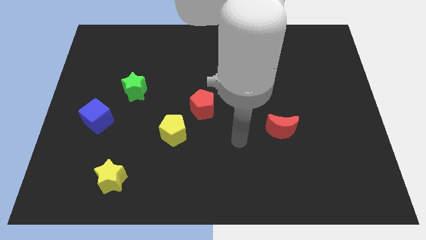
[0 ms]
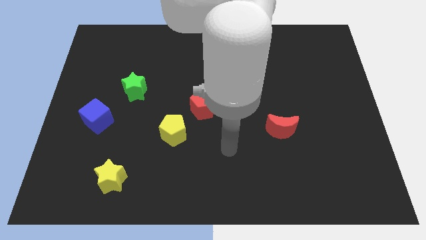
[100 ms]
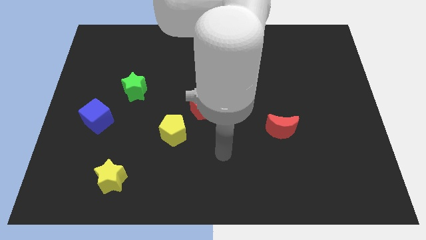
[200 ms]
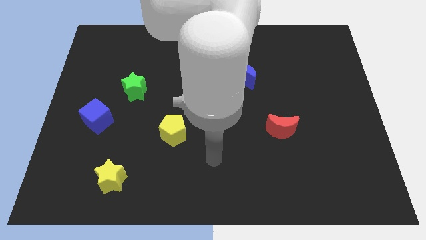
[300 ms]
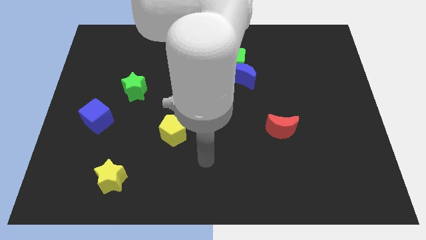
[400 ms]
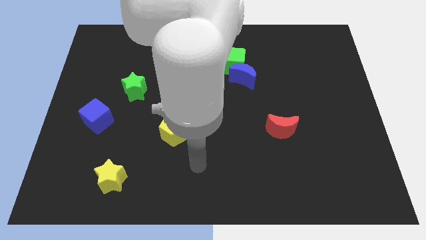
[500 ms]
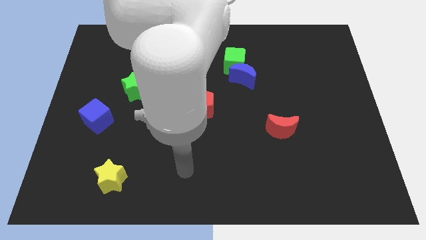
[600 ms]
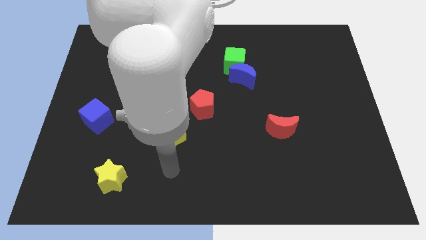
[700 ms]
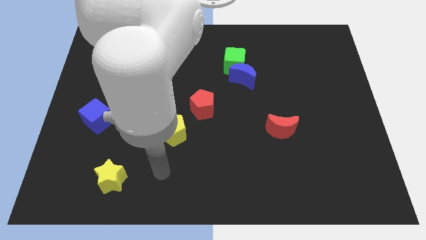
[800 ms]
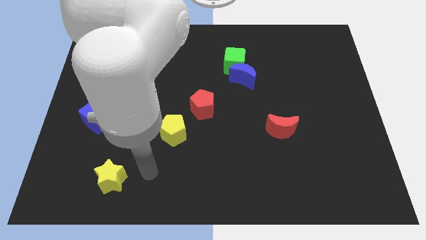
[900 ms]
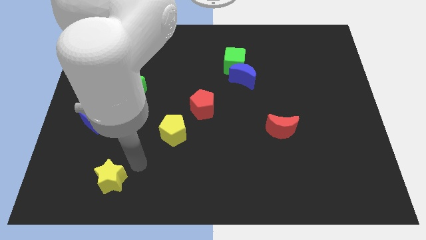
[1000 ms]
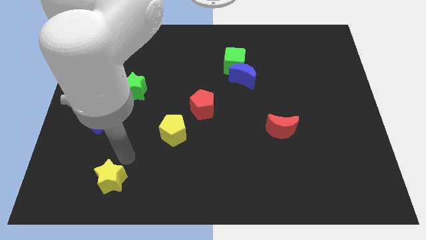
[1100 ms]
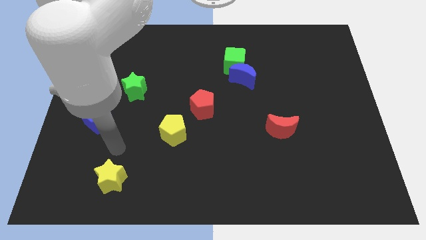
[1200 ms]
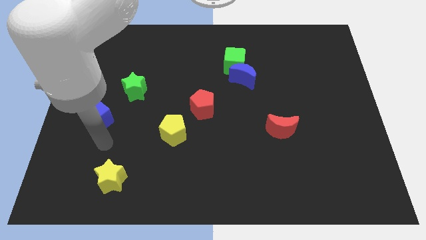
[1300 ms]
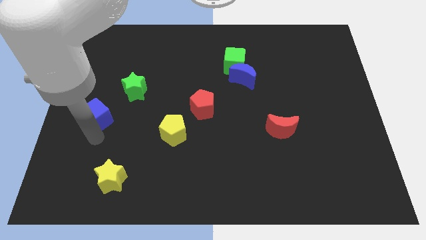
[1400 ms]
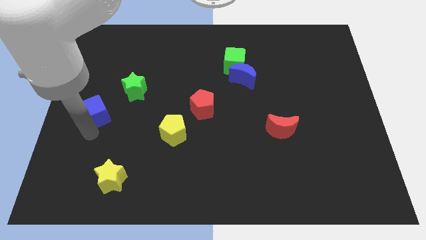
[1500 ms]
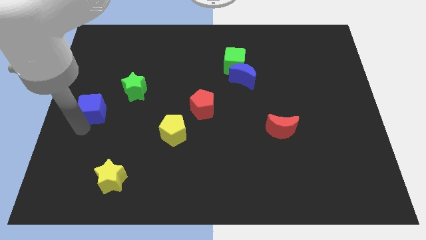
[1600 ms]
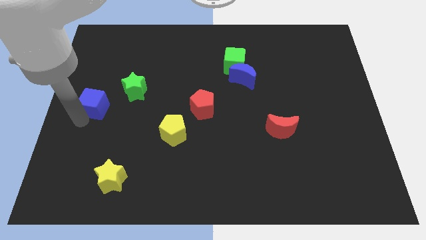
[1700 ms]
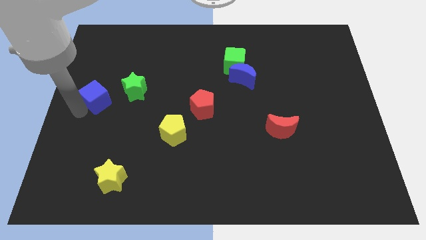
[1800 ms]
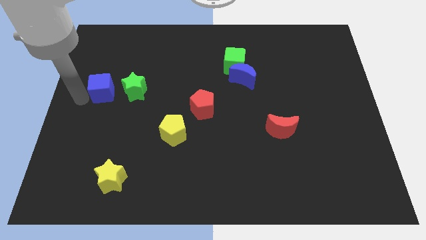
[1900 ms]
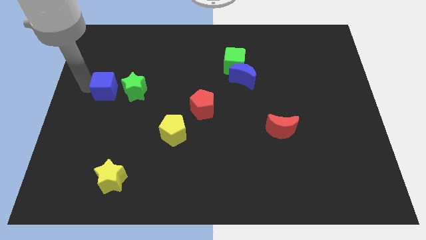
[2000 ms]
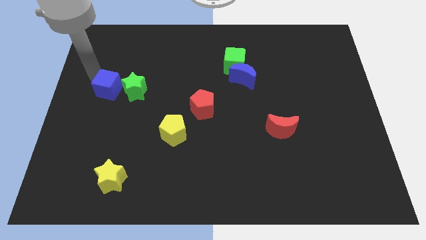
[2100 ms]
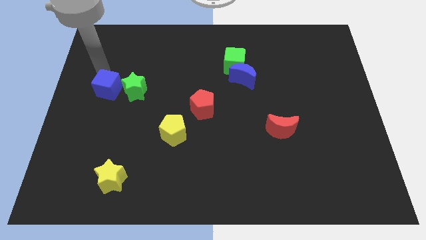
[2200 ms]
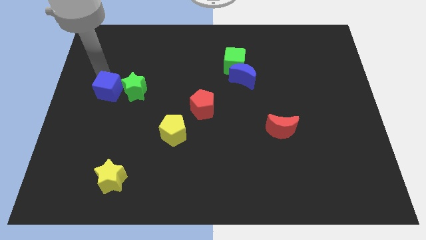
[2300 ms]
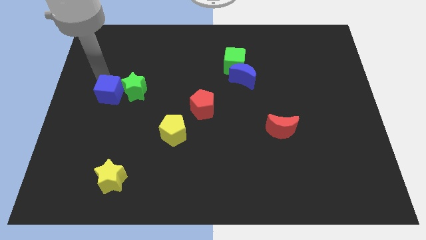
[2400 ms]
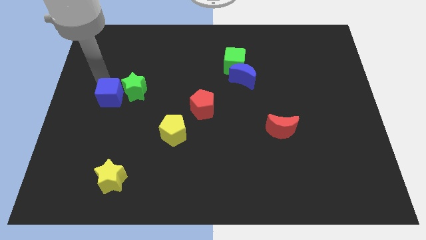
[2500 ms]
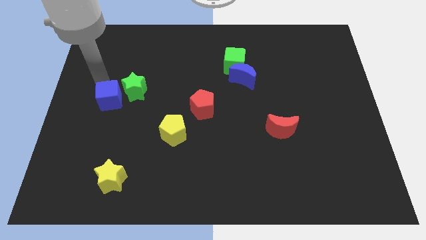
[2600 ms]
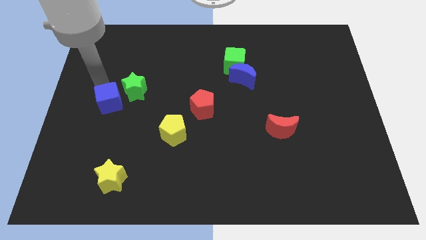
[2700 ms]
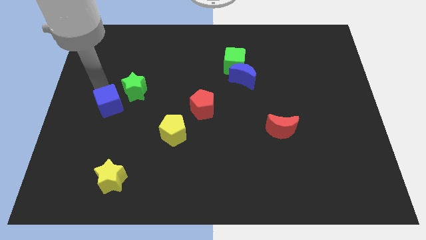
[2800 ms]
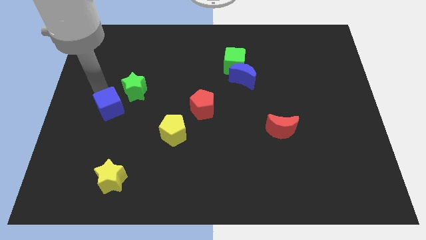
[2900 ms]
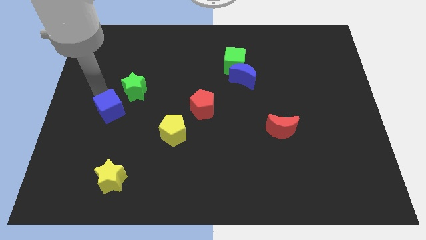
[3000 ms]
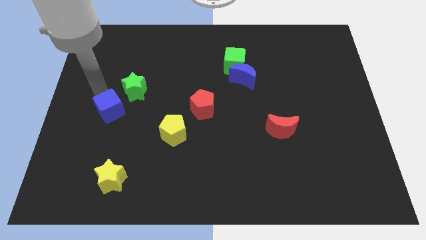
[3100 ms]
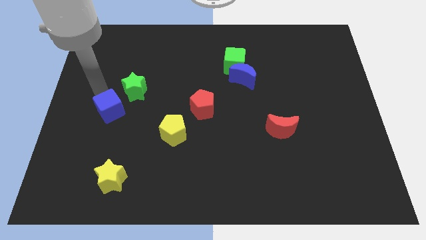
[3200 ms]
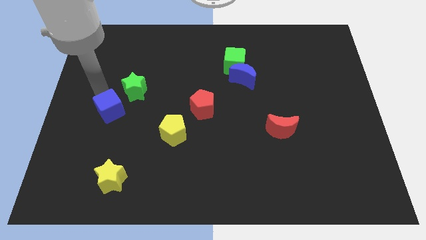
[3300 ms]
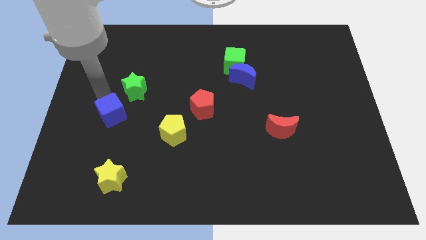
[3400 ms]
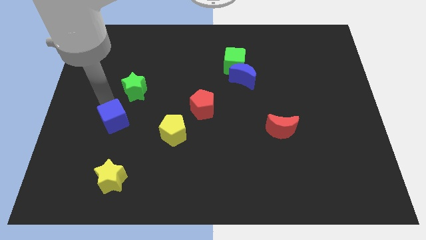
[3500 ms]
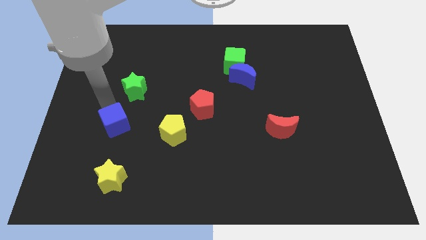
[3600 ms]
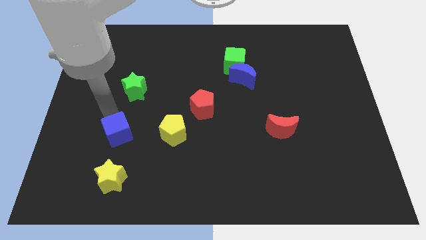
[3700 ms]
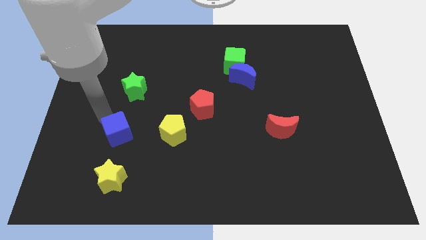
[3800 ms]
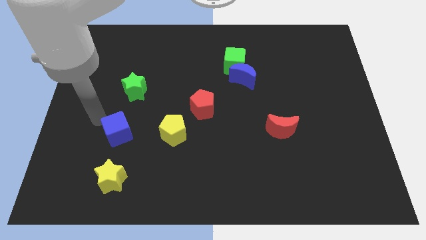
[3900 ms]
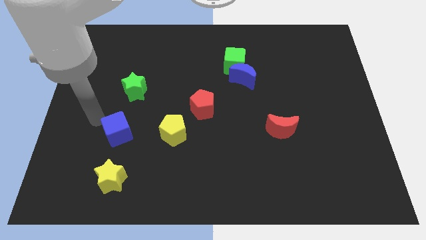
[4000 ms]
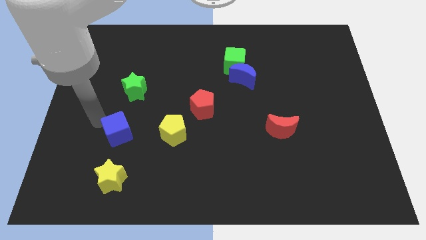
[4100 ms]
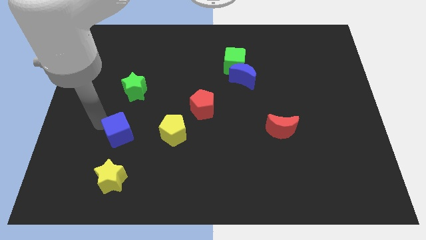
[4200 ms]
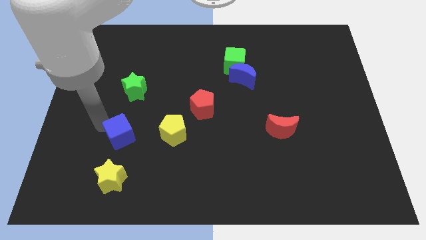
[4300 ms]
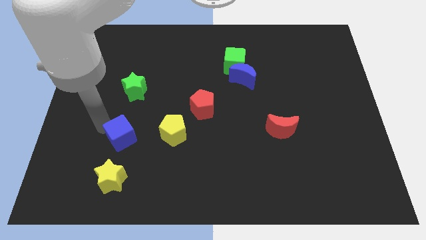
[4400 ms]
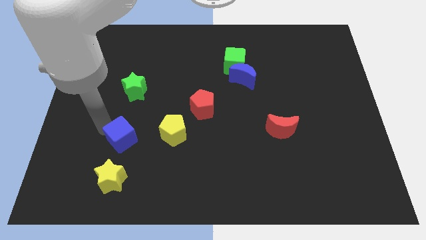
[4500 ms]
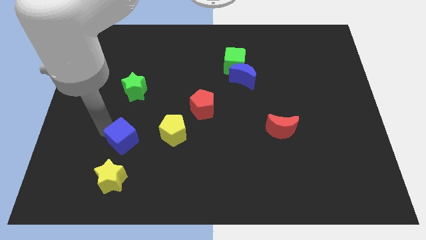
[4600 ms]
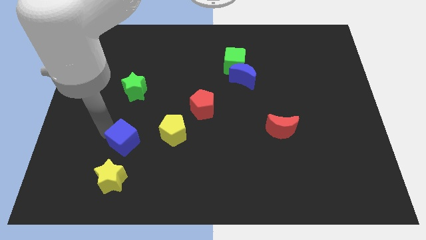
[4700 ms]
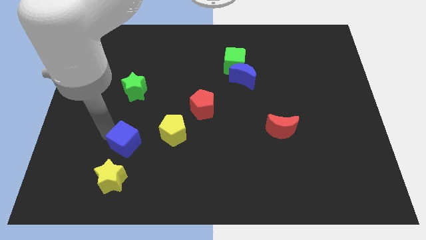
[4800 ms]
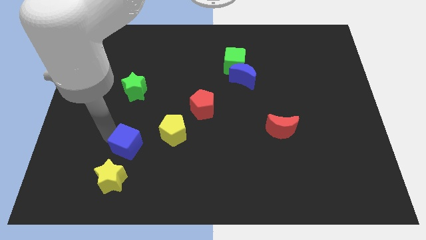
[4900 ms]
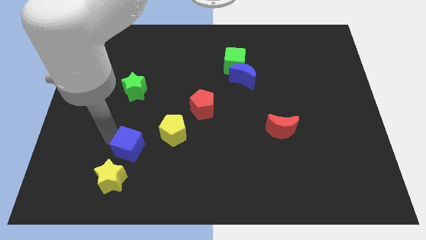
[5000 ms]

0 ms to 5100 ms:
slide the blue cube to the bottom left side of the yellow pentagon

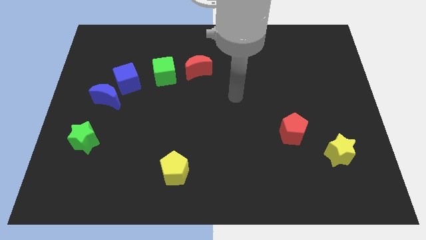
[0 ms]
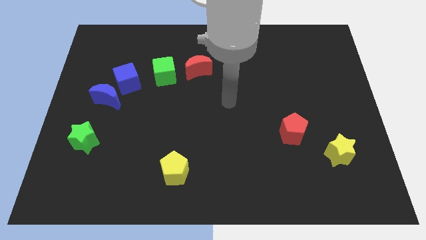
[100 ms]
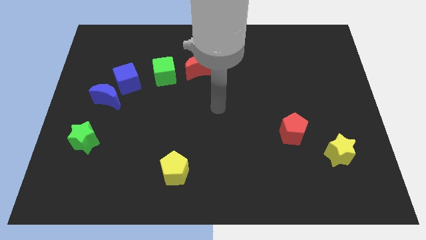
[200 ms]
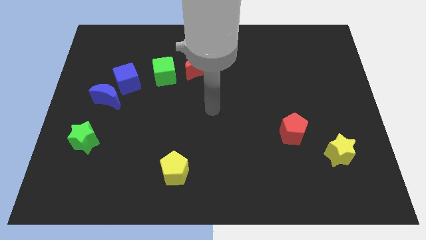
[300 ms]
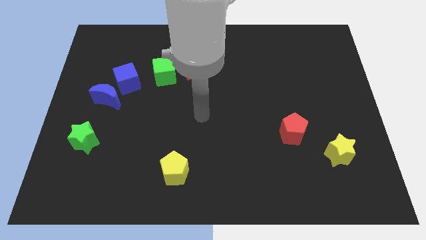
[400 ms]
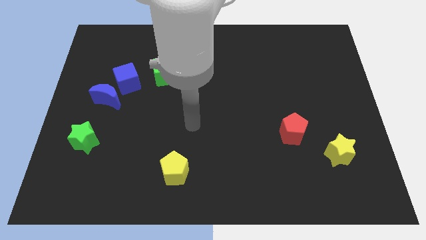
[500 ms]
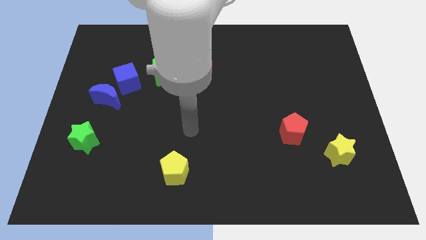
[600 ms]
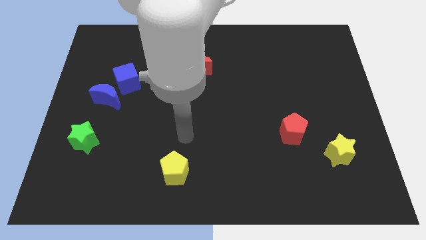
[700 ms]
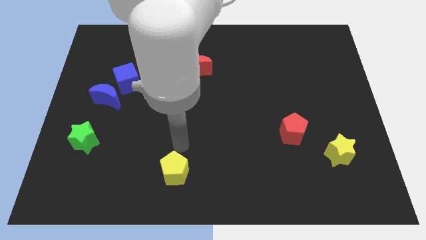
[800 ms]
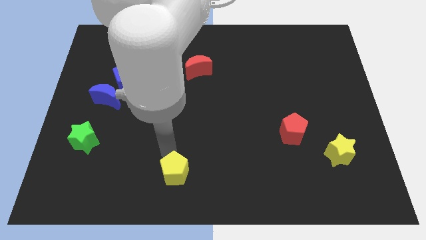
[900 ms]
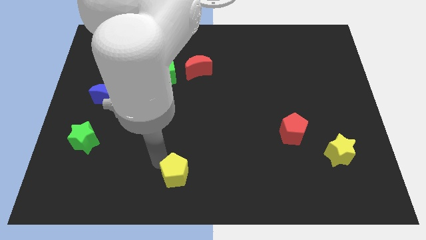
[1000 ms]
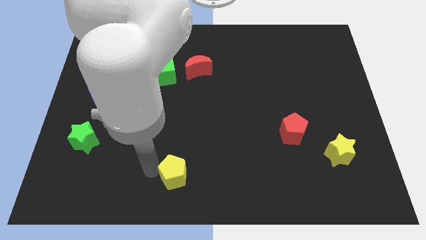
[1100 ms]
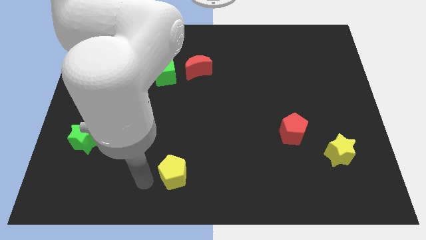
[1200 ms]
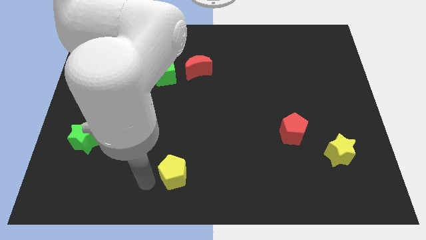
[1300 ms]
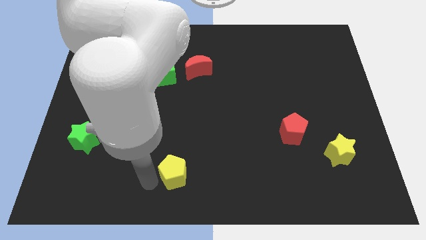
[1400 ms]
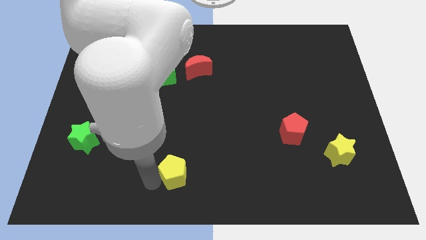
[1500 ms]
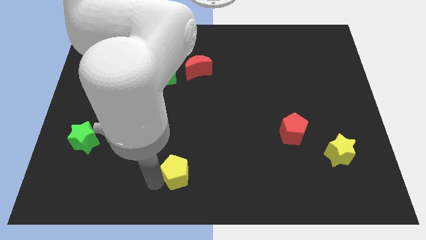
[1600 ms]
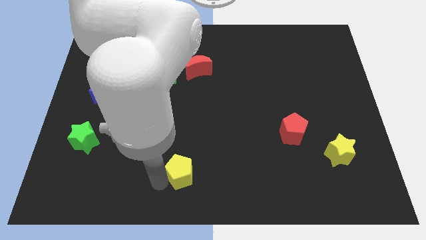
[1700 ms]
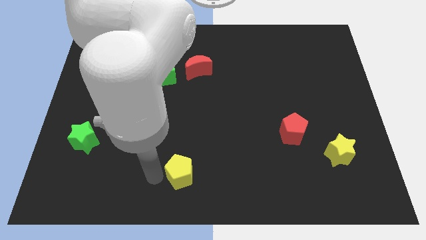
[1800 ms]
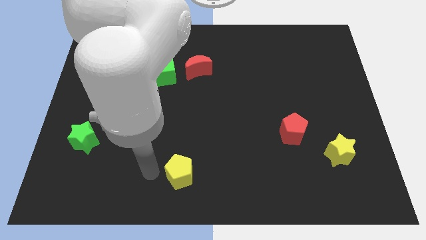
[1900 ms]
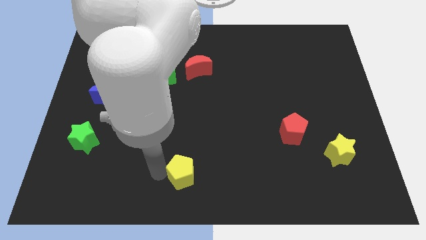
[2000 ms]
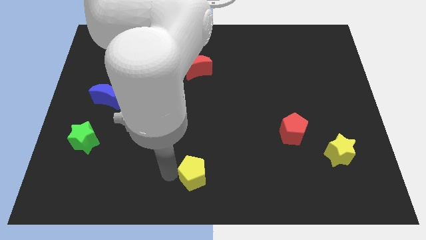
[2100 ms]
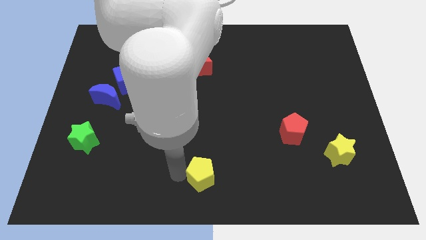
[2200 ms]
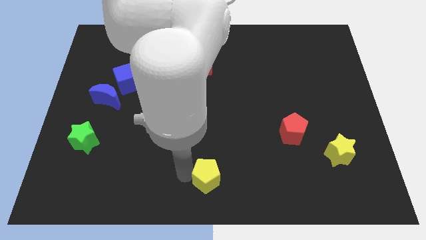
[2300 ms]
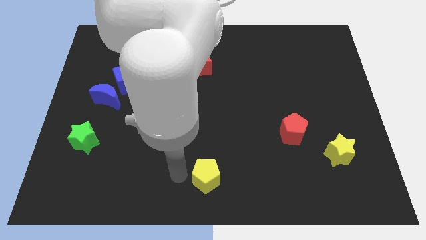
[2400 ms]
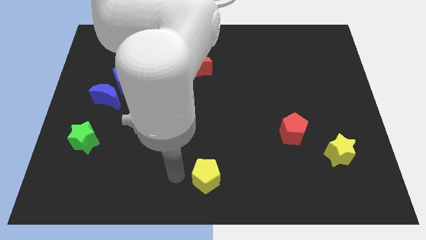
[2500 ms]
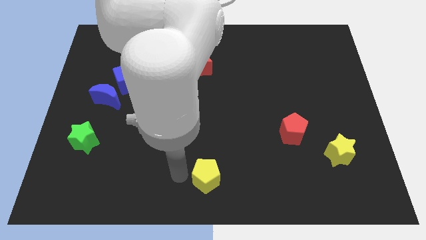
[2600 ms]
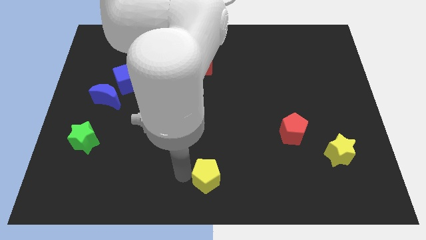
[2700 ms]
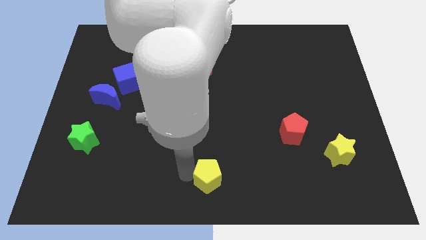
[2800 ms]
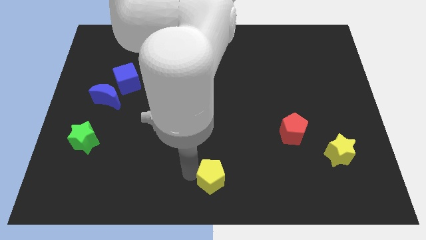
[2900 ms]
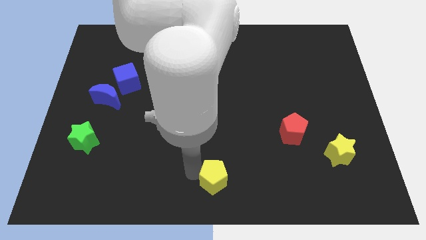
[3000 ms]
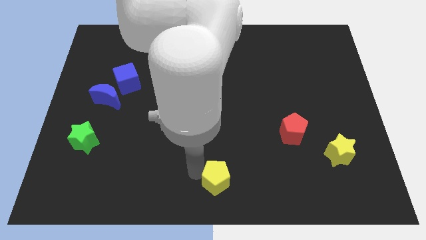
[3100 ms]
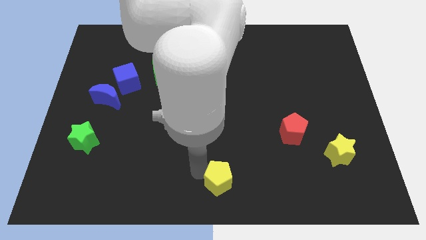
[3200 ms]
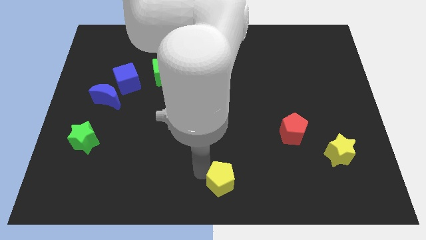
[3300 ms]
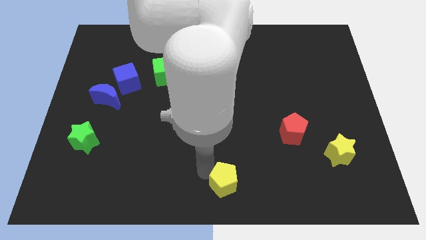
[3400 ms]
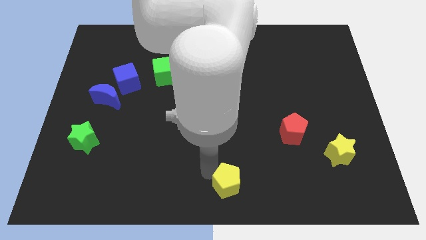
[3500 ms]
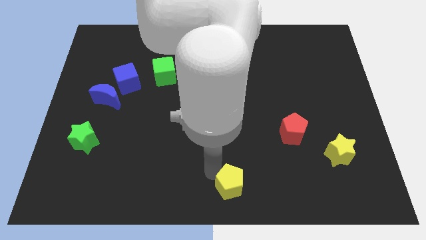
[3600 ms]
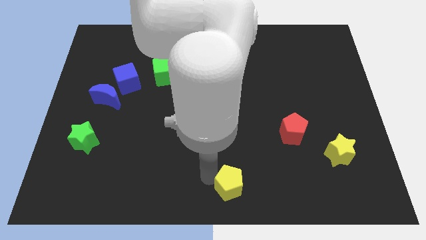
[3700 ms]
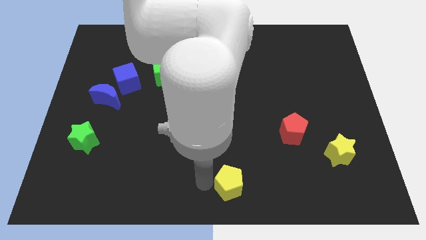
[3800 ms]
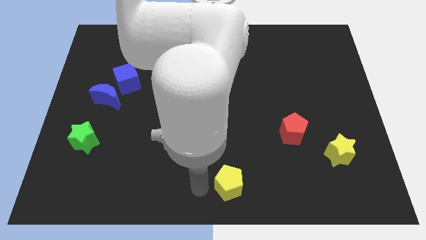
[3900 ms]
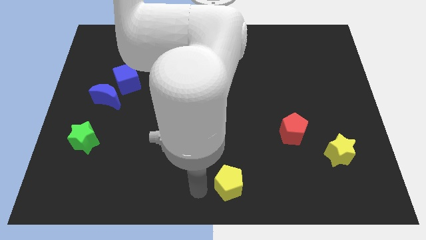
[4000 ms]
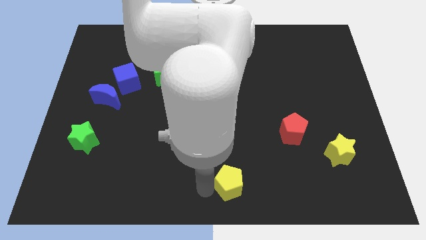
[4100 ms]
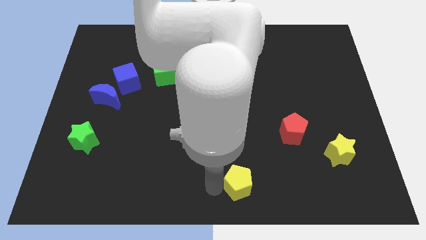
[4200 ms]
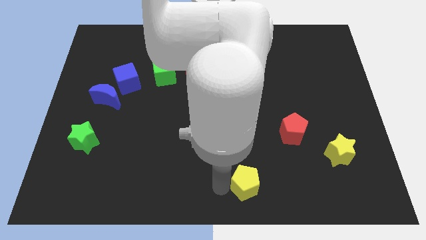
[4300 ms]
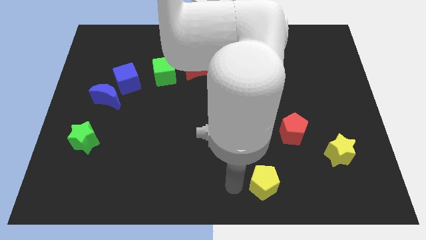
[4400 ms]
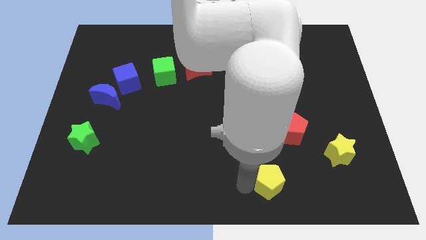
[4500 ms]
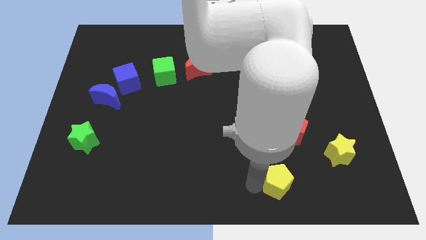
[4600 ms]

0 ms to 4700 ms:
slide the yellow pentagon to the bottom of the red pentagon
